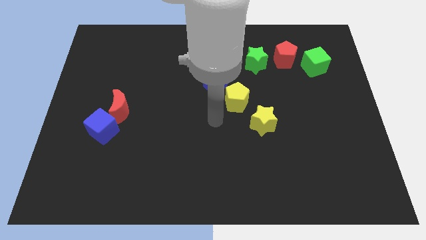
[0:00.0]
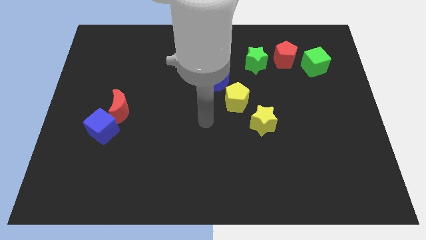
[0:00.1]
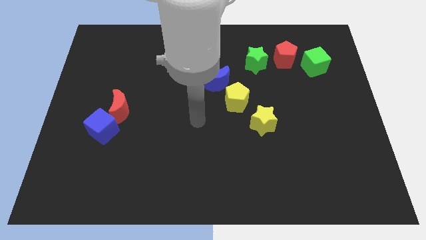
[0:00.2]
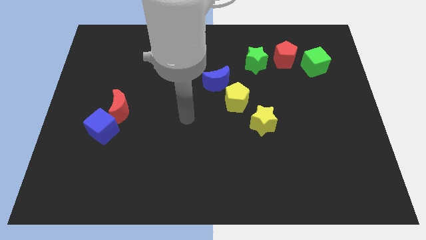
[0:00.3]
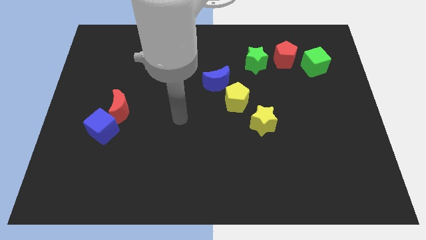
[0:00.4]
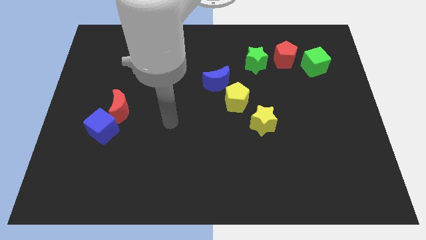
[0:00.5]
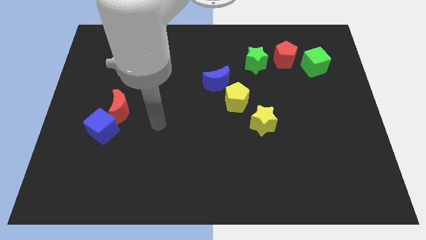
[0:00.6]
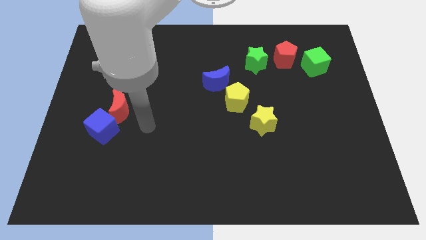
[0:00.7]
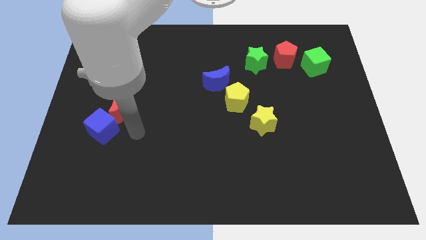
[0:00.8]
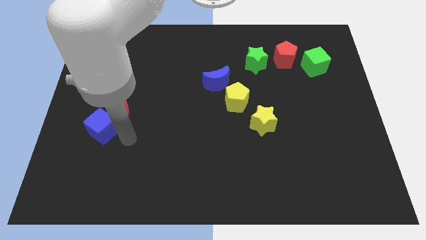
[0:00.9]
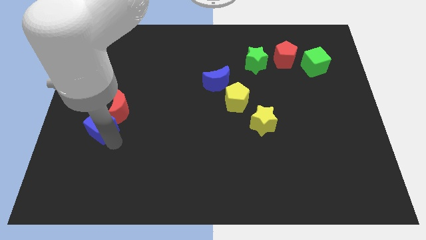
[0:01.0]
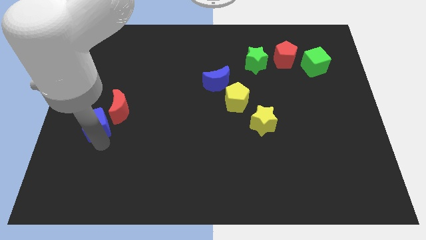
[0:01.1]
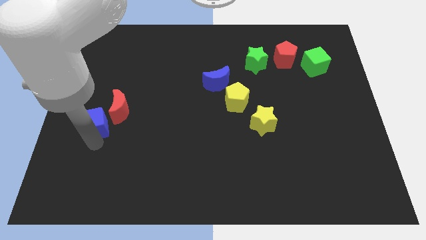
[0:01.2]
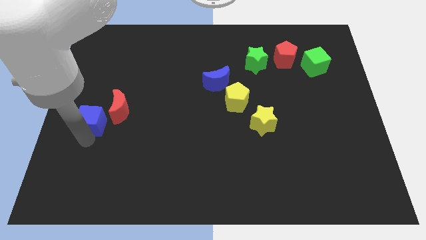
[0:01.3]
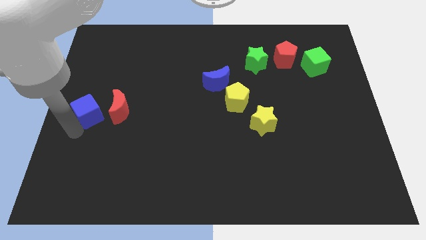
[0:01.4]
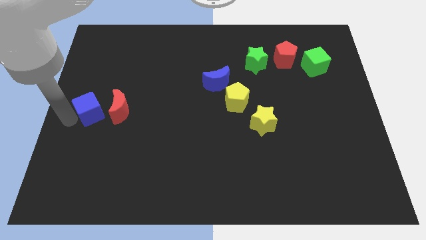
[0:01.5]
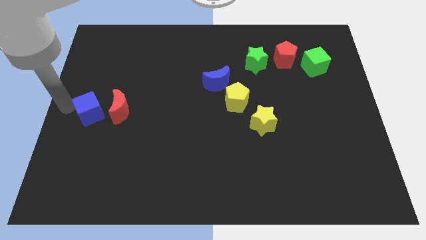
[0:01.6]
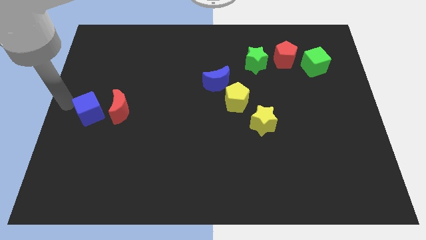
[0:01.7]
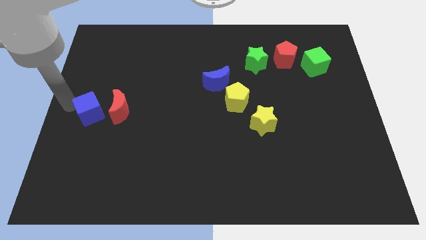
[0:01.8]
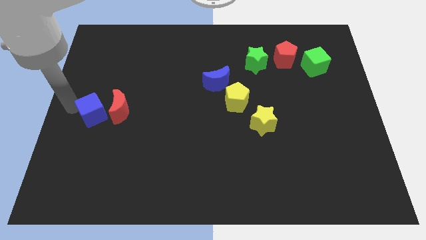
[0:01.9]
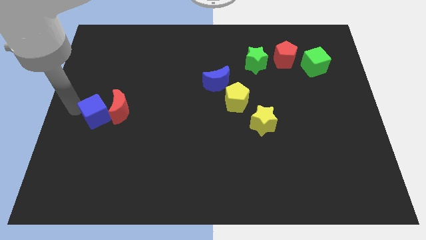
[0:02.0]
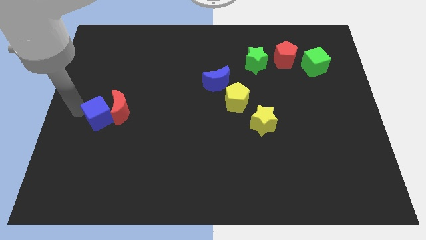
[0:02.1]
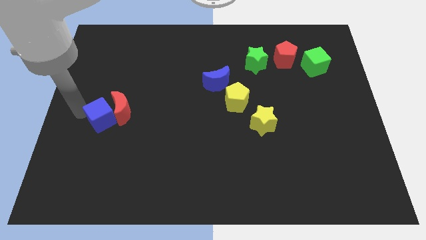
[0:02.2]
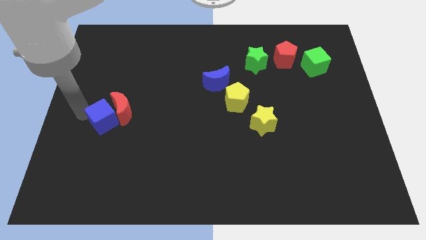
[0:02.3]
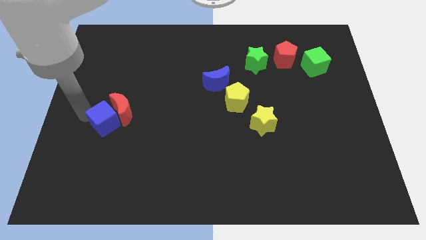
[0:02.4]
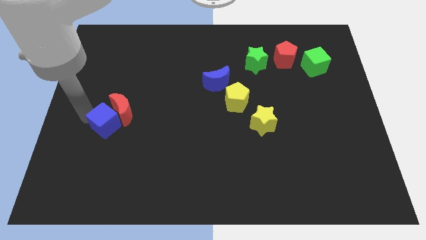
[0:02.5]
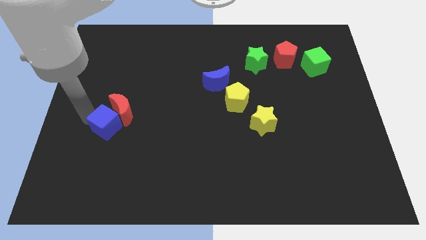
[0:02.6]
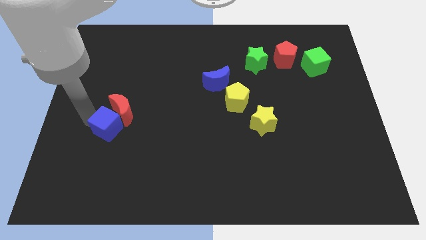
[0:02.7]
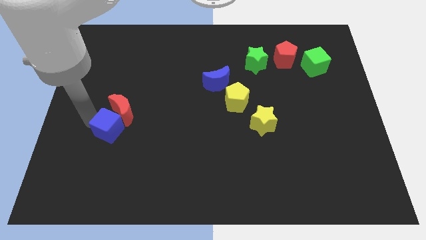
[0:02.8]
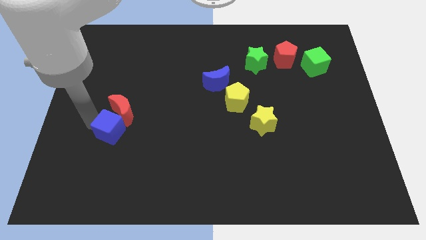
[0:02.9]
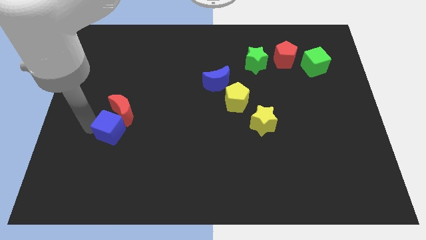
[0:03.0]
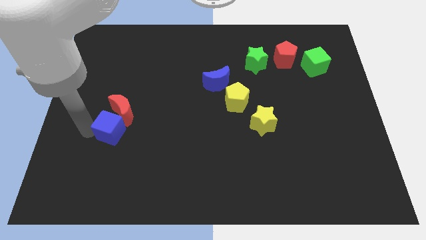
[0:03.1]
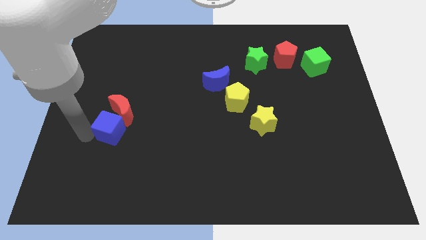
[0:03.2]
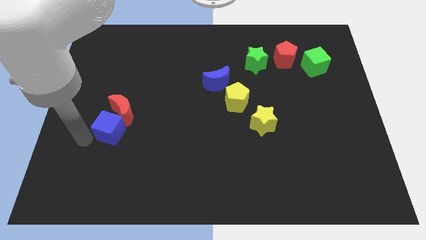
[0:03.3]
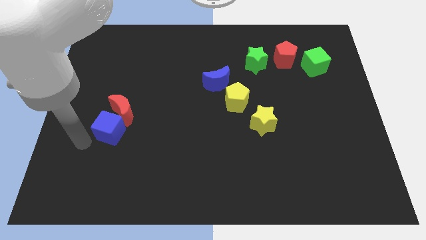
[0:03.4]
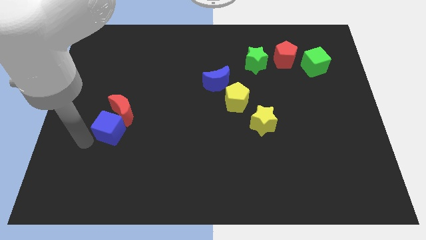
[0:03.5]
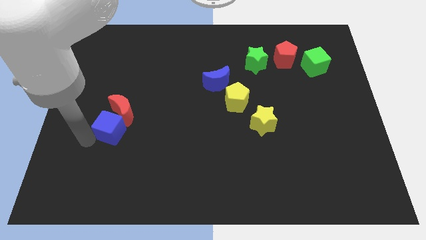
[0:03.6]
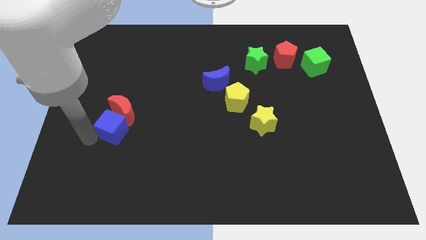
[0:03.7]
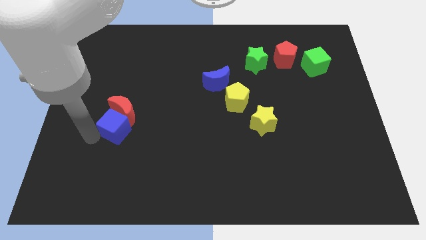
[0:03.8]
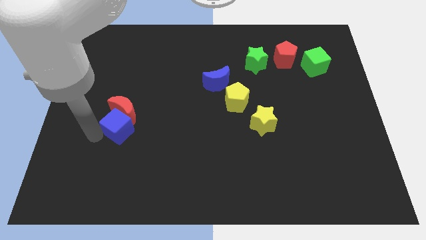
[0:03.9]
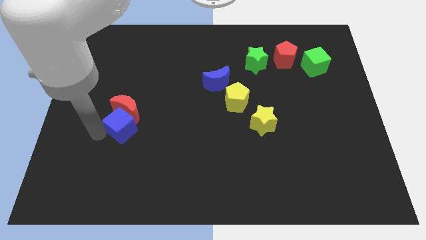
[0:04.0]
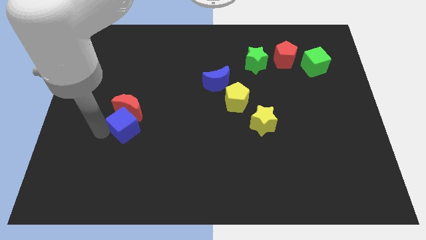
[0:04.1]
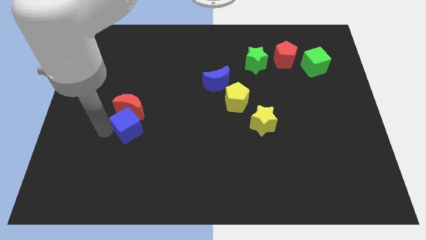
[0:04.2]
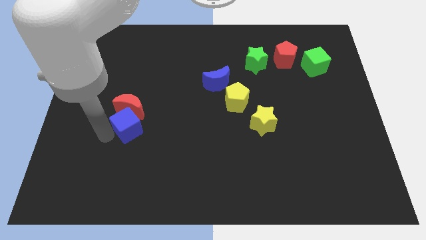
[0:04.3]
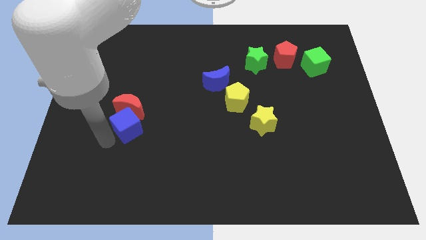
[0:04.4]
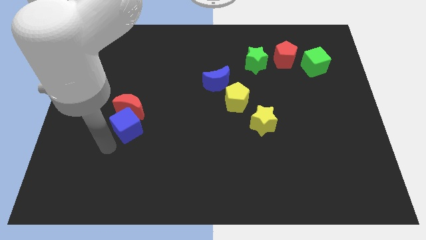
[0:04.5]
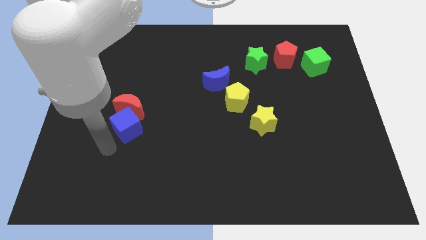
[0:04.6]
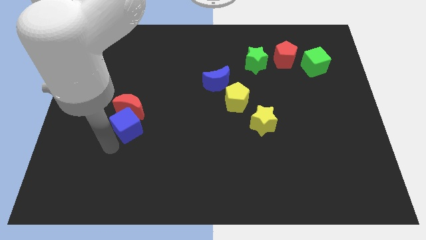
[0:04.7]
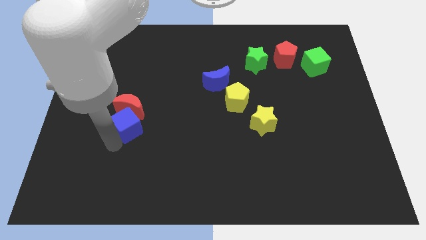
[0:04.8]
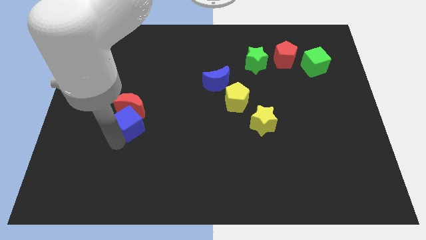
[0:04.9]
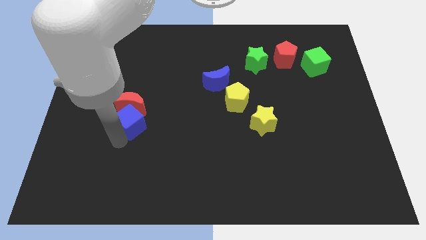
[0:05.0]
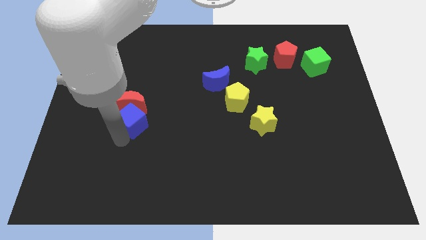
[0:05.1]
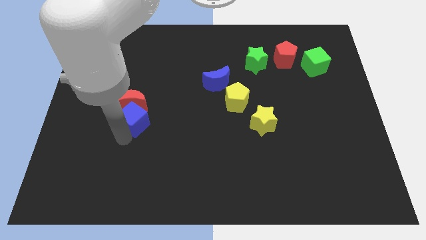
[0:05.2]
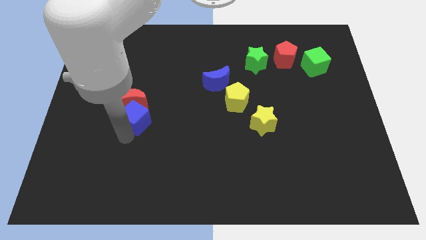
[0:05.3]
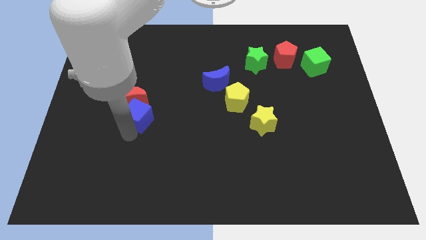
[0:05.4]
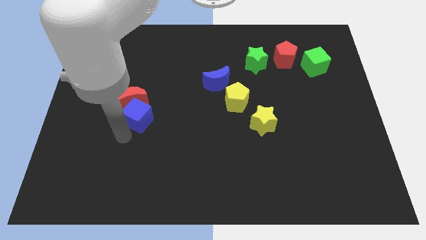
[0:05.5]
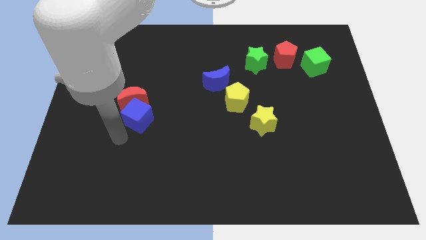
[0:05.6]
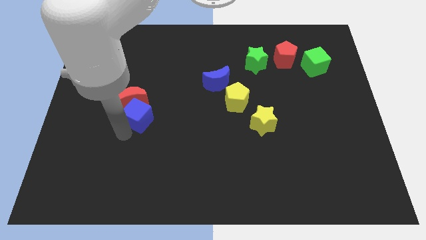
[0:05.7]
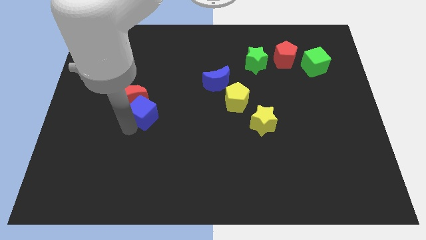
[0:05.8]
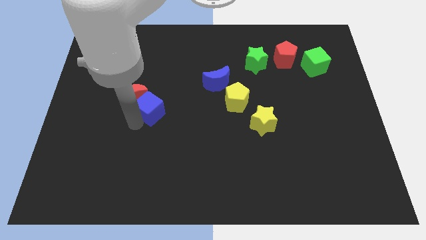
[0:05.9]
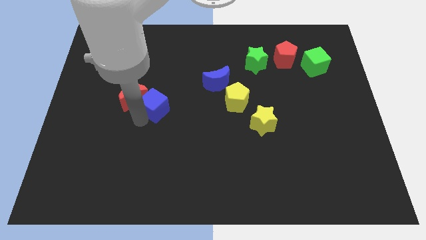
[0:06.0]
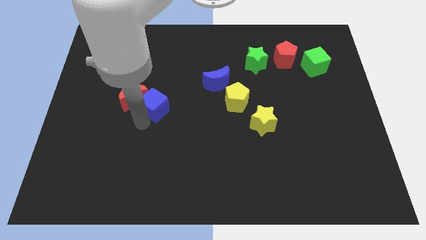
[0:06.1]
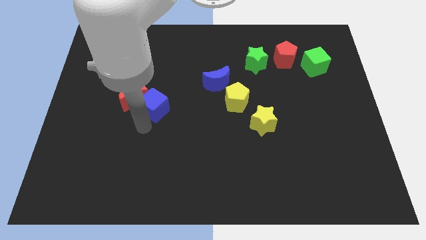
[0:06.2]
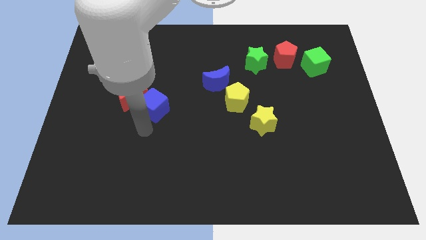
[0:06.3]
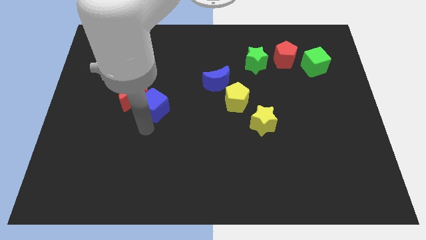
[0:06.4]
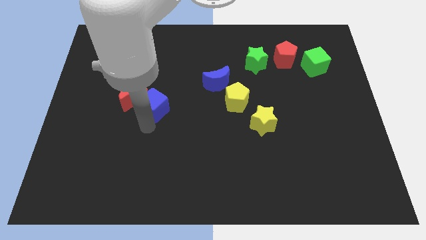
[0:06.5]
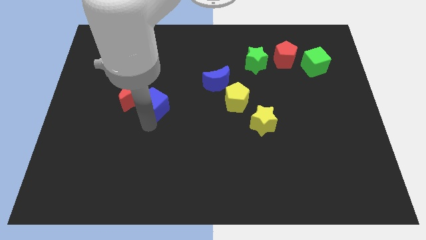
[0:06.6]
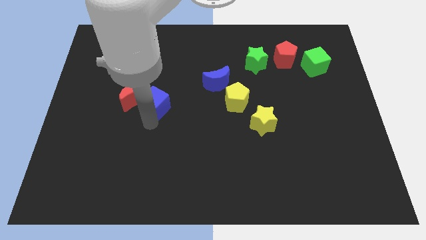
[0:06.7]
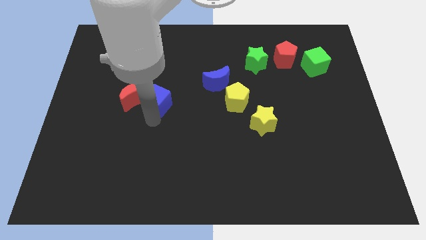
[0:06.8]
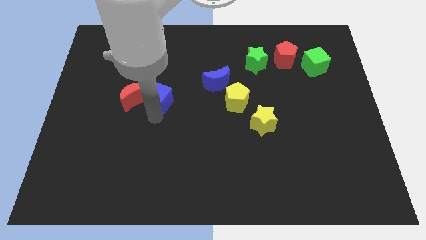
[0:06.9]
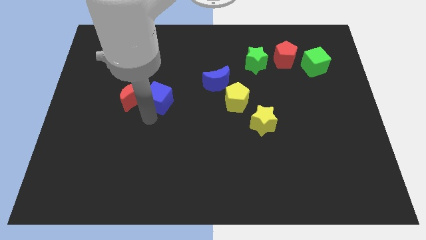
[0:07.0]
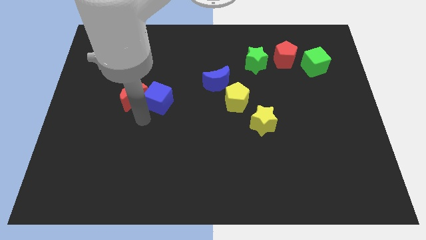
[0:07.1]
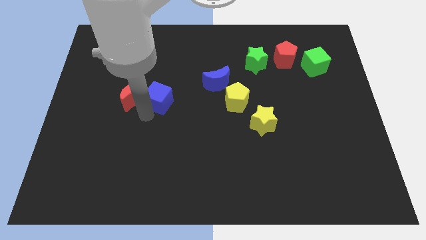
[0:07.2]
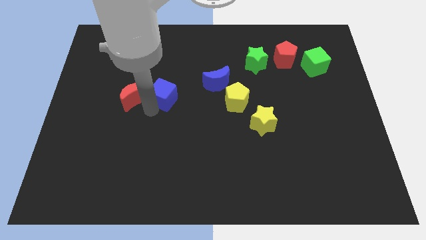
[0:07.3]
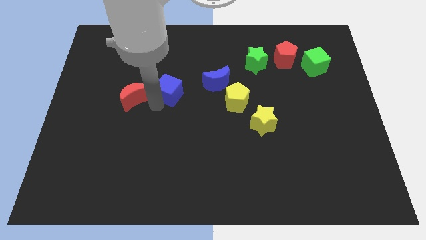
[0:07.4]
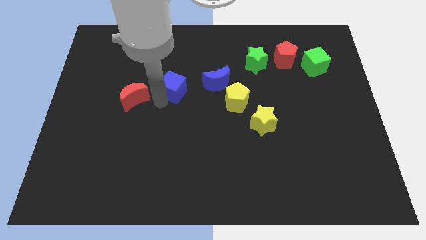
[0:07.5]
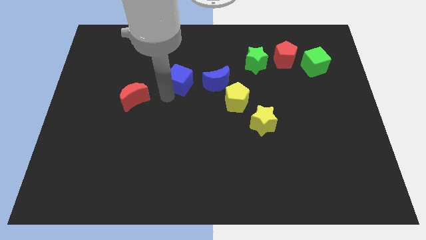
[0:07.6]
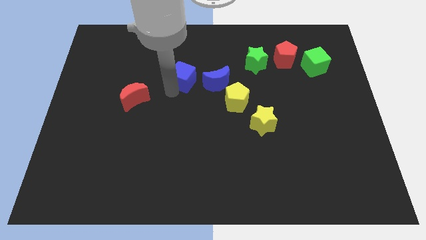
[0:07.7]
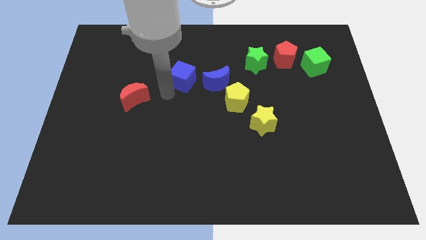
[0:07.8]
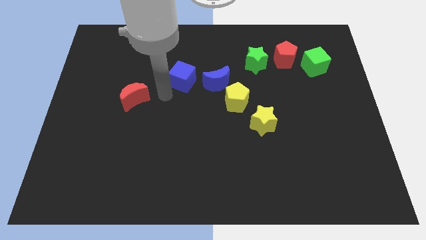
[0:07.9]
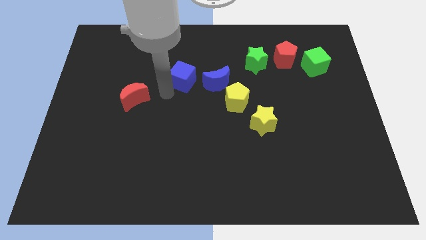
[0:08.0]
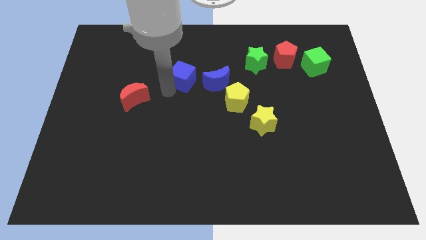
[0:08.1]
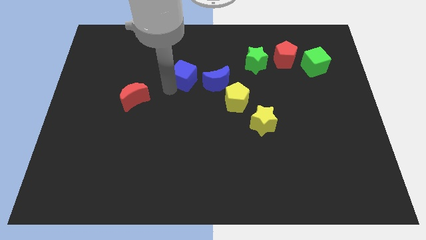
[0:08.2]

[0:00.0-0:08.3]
move the blue cube to the top left of the blue moon
